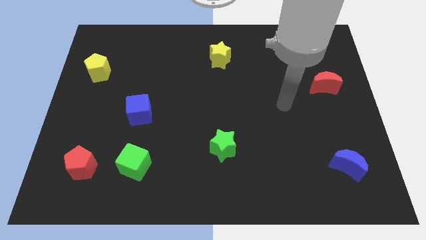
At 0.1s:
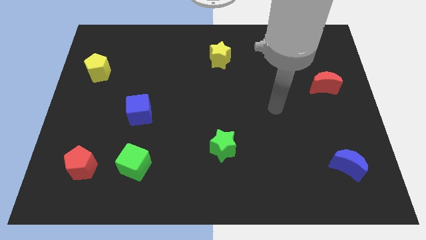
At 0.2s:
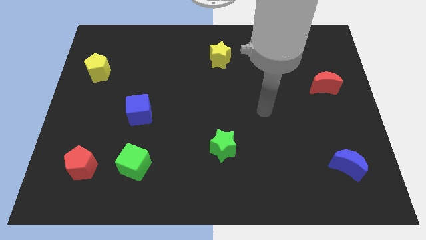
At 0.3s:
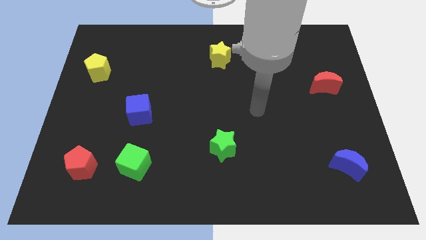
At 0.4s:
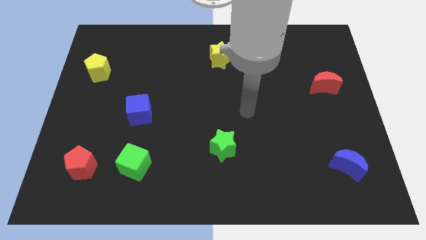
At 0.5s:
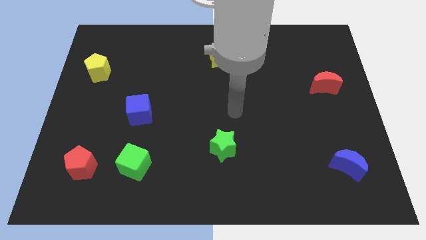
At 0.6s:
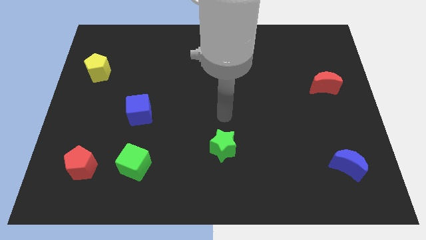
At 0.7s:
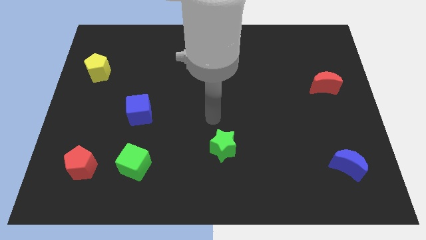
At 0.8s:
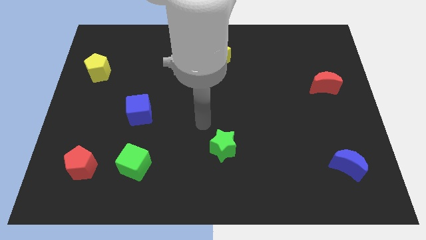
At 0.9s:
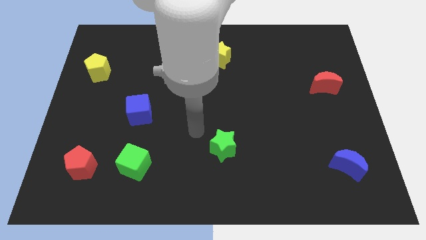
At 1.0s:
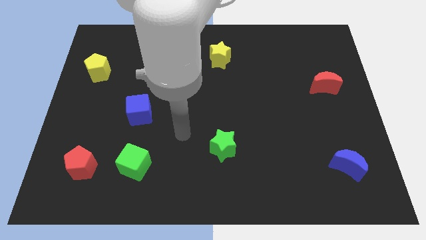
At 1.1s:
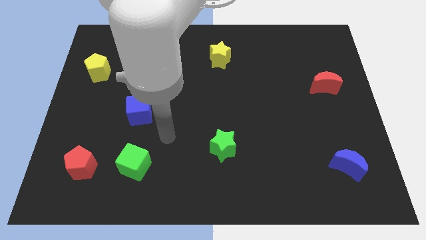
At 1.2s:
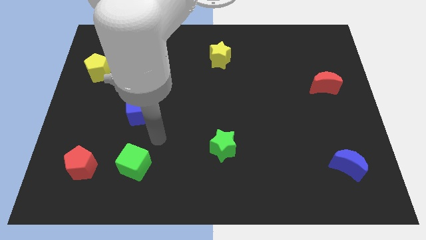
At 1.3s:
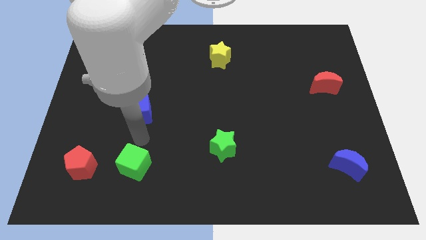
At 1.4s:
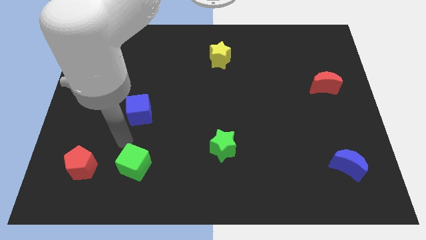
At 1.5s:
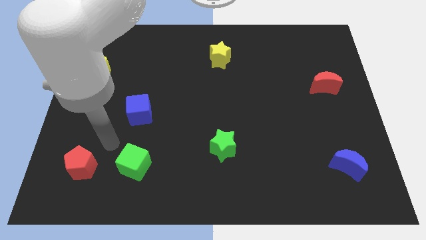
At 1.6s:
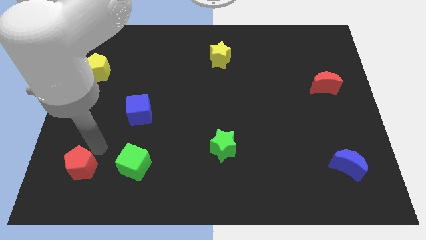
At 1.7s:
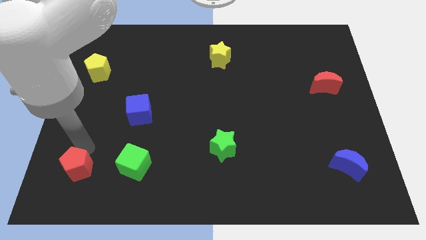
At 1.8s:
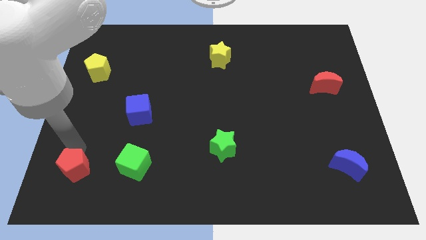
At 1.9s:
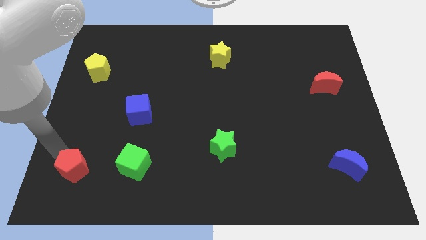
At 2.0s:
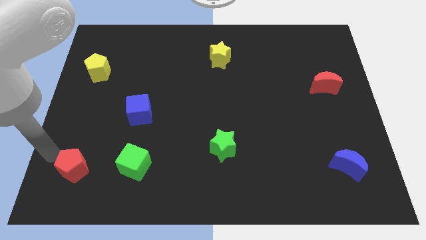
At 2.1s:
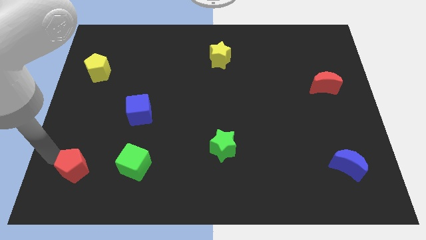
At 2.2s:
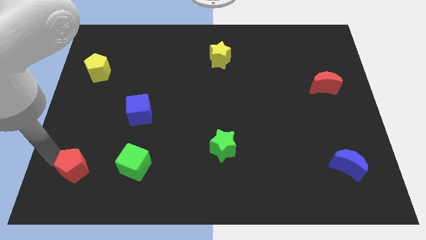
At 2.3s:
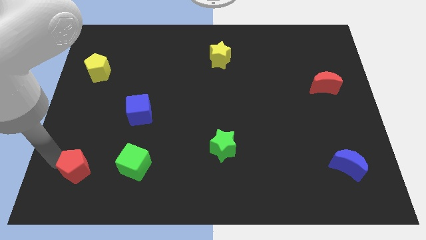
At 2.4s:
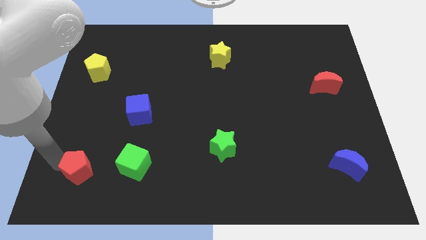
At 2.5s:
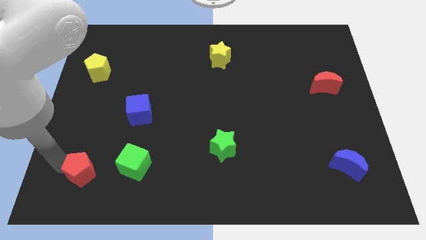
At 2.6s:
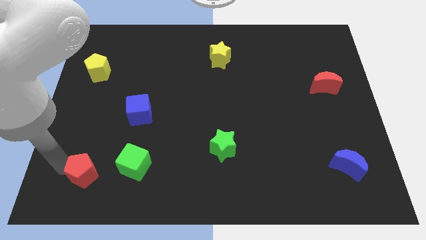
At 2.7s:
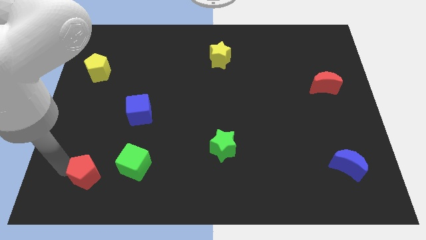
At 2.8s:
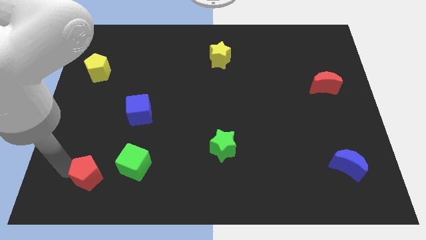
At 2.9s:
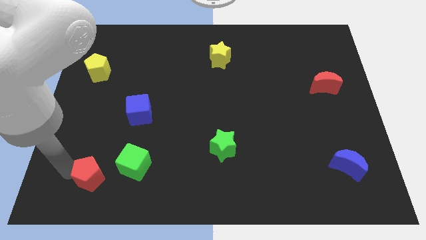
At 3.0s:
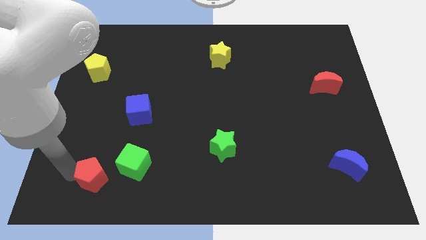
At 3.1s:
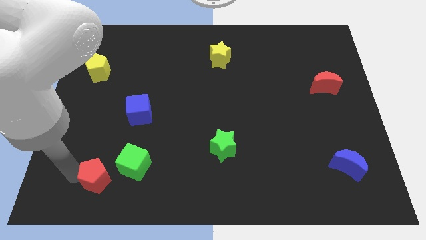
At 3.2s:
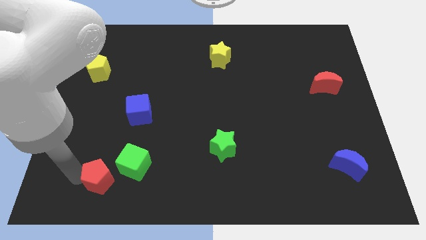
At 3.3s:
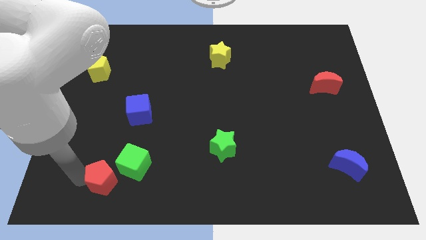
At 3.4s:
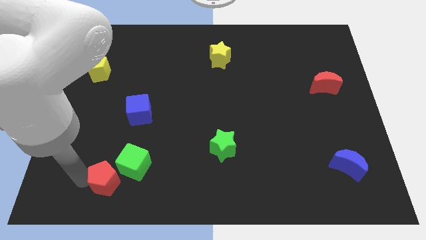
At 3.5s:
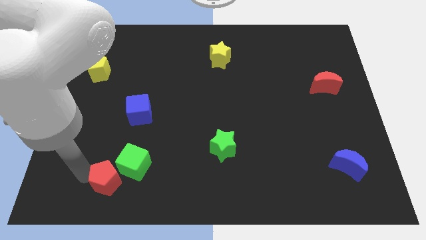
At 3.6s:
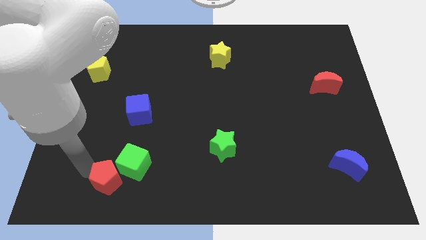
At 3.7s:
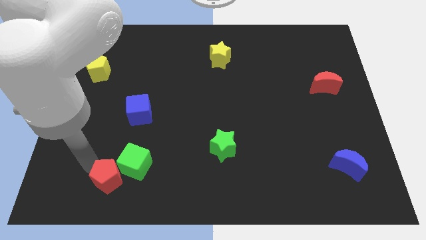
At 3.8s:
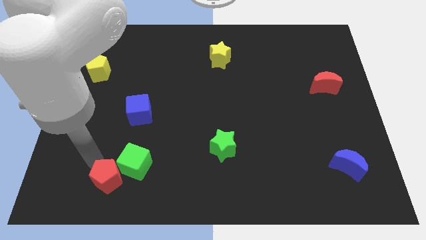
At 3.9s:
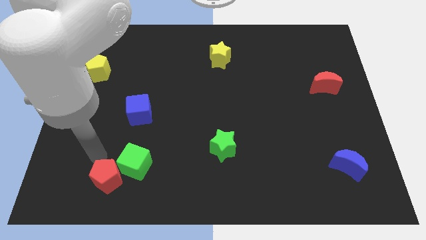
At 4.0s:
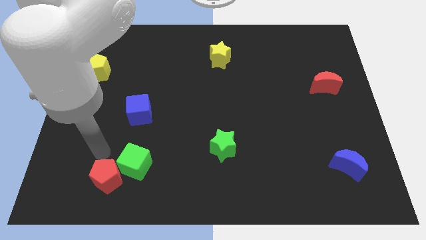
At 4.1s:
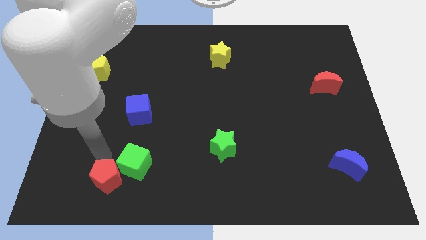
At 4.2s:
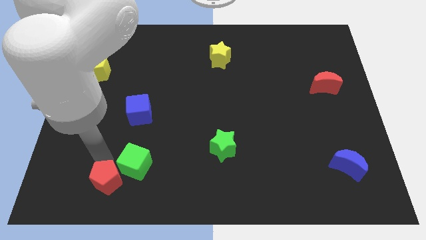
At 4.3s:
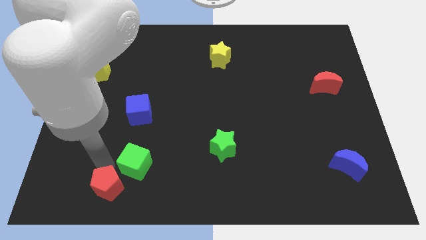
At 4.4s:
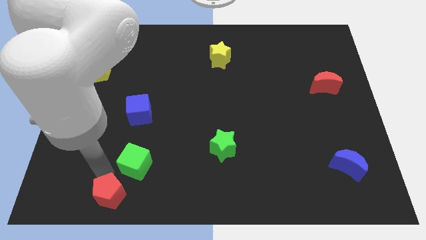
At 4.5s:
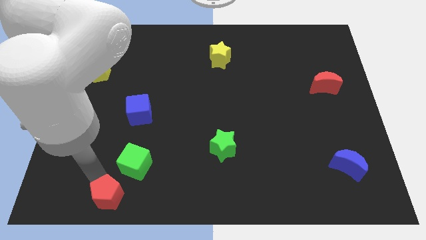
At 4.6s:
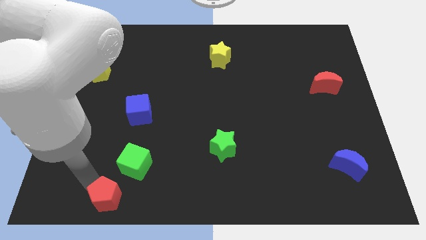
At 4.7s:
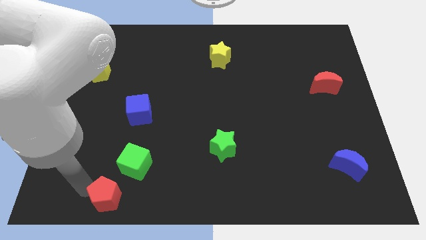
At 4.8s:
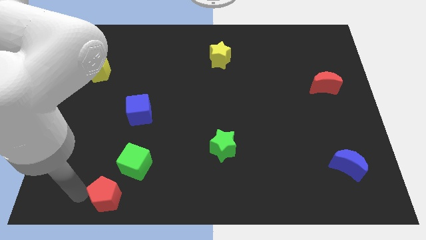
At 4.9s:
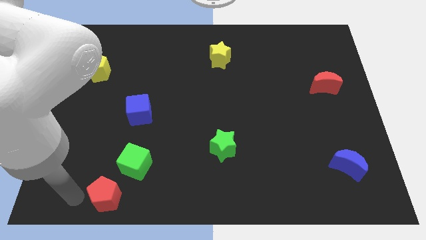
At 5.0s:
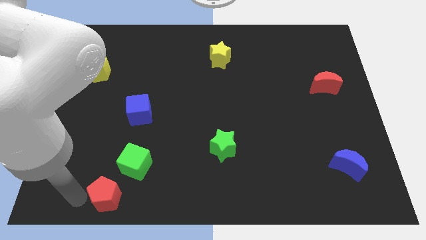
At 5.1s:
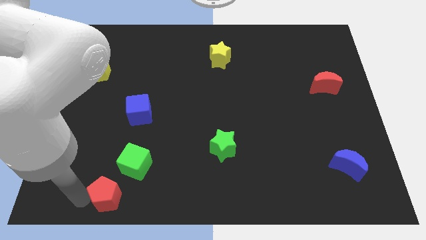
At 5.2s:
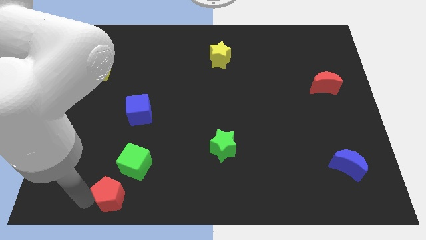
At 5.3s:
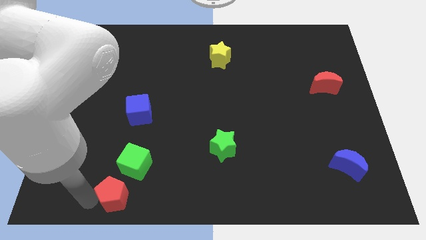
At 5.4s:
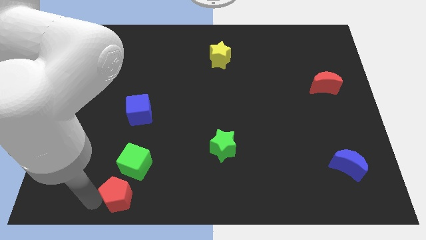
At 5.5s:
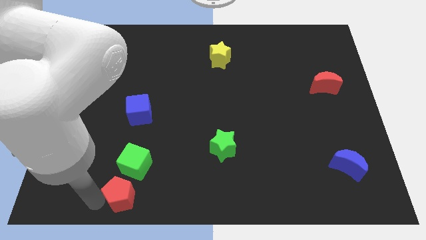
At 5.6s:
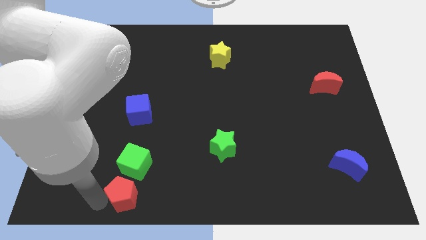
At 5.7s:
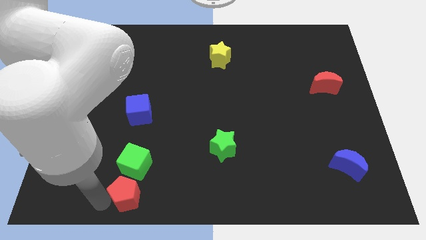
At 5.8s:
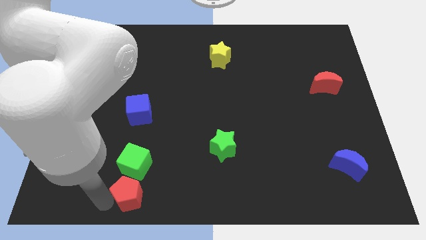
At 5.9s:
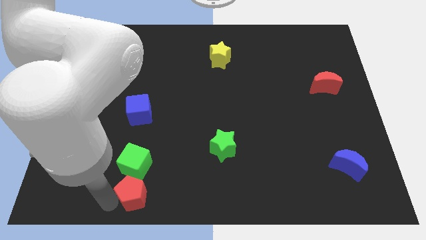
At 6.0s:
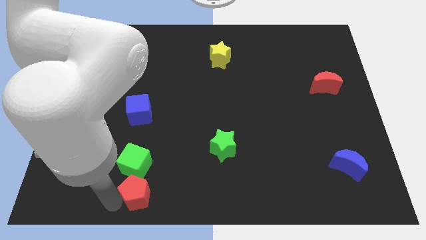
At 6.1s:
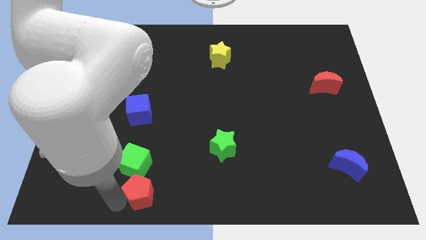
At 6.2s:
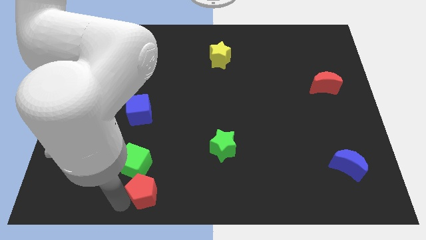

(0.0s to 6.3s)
slide the red pentagon to the bottom side
